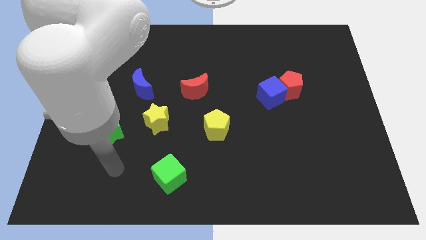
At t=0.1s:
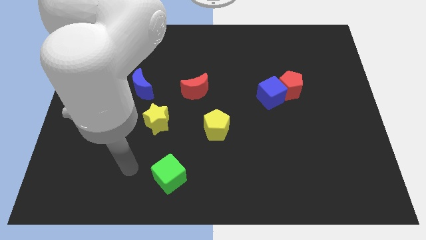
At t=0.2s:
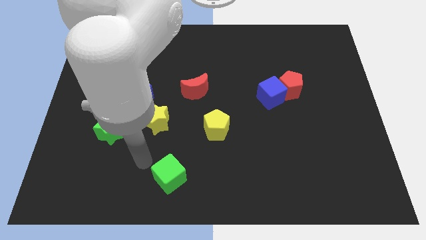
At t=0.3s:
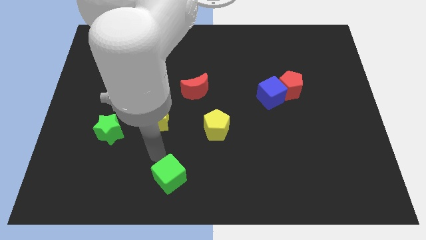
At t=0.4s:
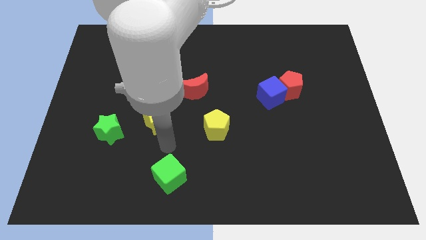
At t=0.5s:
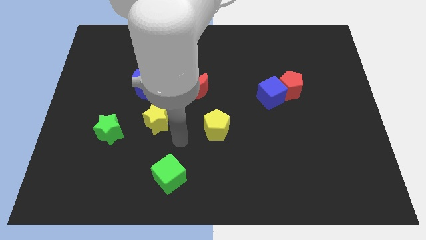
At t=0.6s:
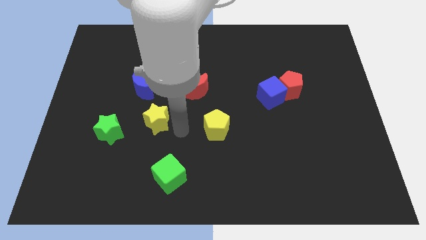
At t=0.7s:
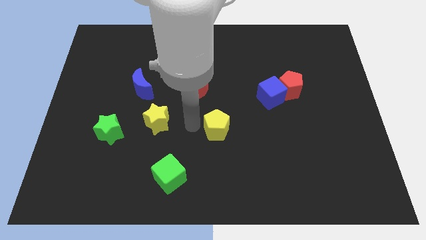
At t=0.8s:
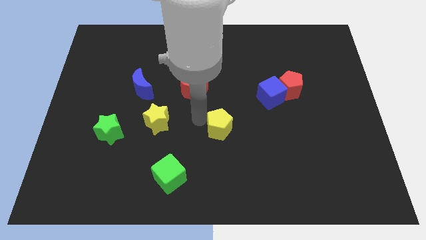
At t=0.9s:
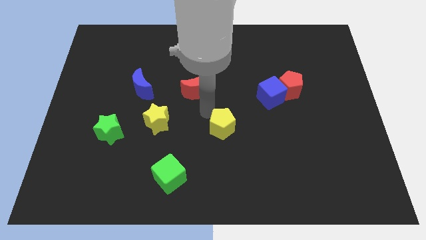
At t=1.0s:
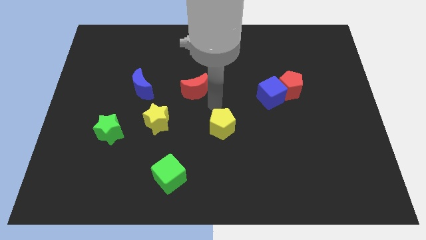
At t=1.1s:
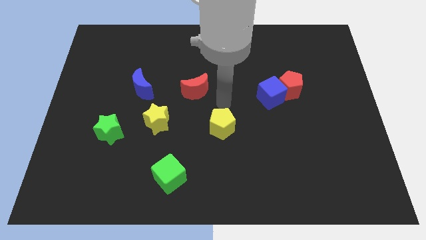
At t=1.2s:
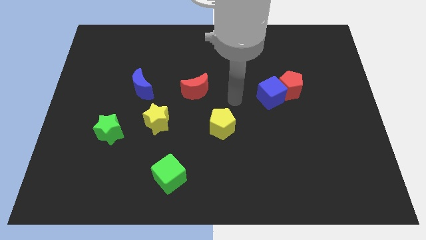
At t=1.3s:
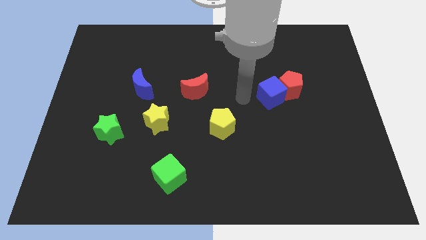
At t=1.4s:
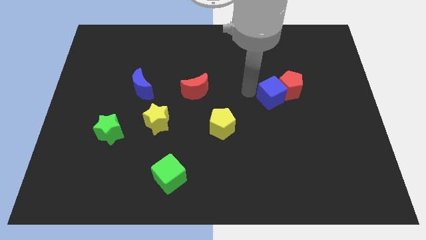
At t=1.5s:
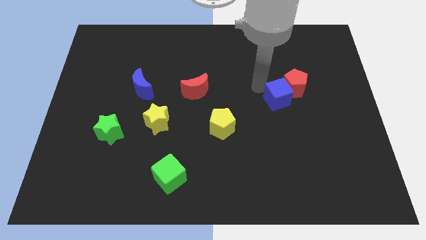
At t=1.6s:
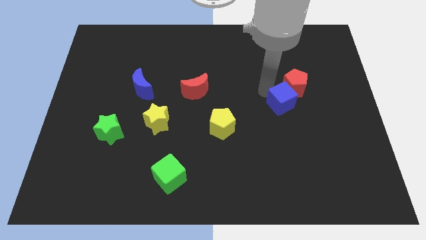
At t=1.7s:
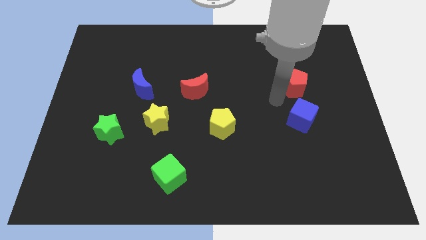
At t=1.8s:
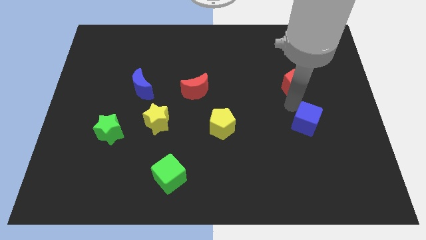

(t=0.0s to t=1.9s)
pull the red pentagon apart from the blue cube

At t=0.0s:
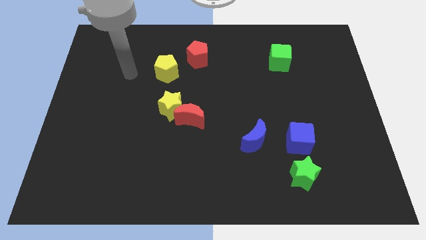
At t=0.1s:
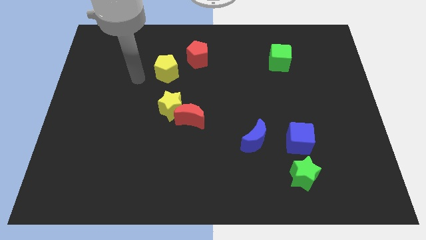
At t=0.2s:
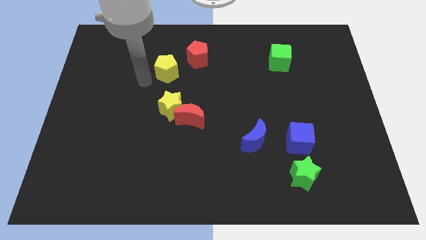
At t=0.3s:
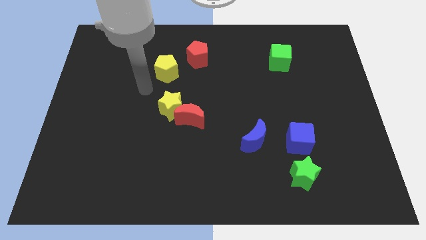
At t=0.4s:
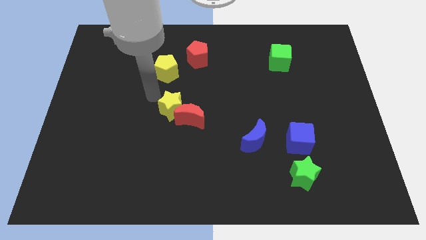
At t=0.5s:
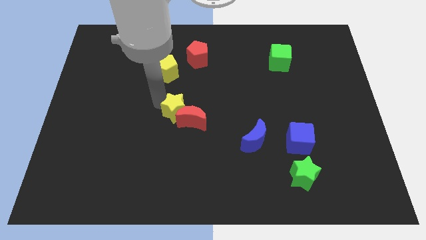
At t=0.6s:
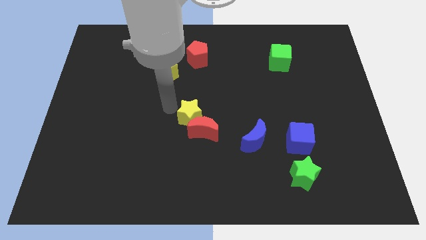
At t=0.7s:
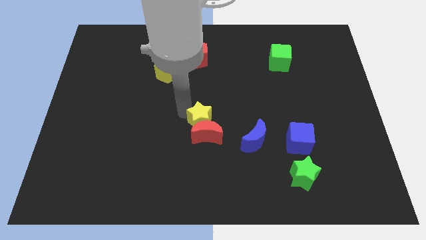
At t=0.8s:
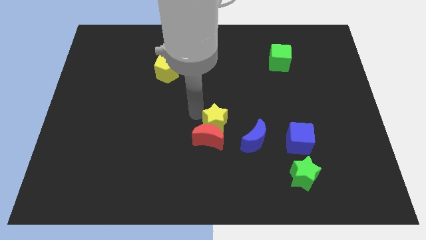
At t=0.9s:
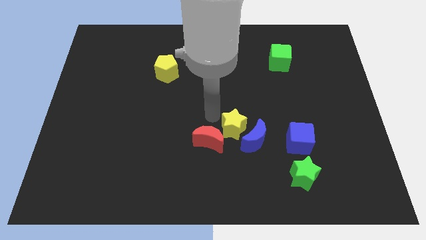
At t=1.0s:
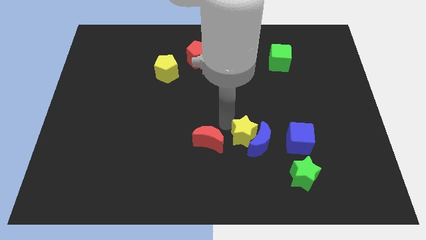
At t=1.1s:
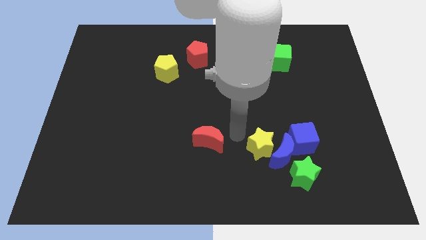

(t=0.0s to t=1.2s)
separate the red moon from the yellow star

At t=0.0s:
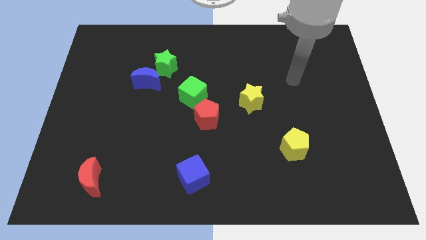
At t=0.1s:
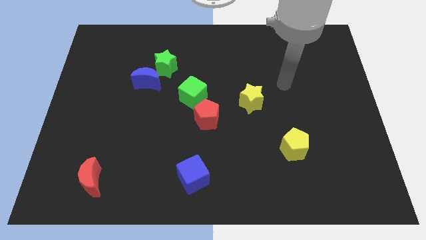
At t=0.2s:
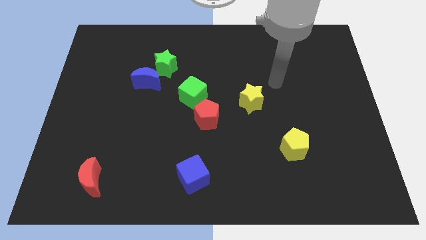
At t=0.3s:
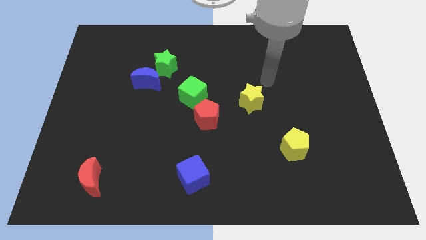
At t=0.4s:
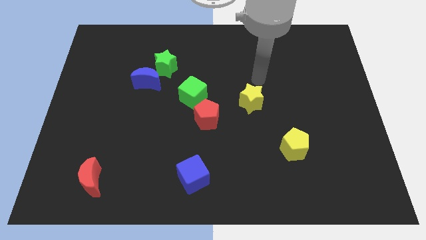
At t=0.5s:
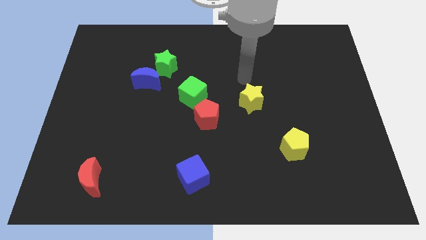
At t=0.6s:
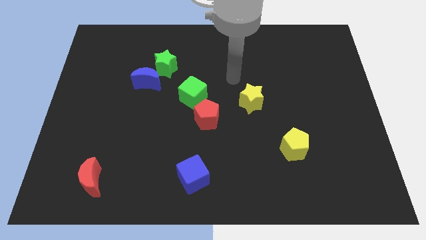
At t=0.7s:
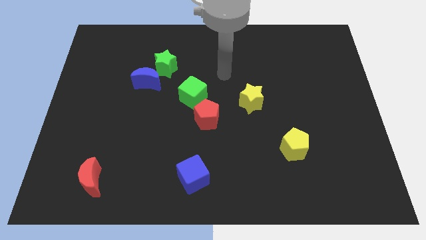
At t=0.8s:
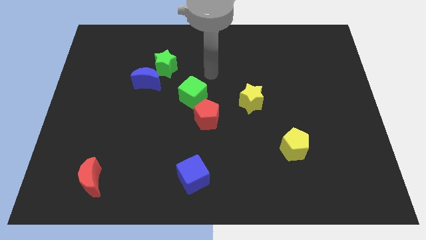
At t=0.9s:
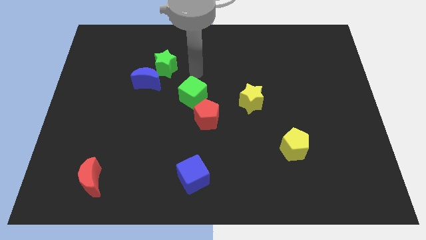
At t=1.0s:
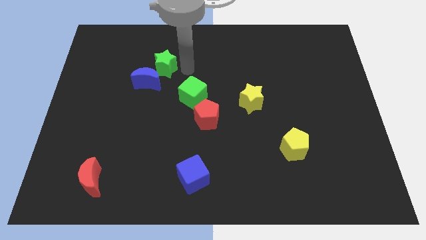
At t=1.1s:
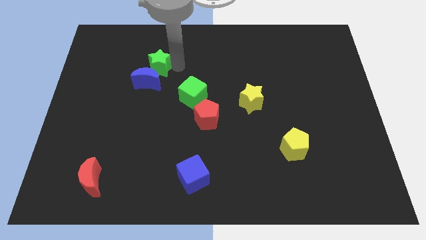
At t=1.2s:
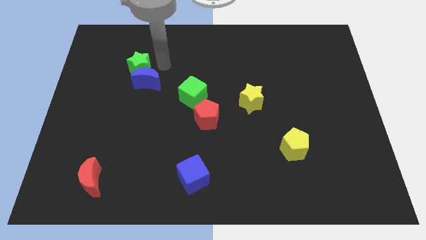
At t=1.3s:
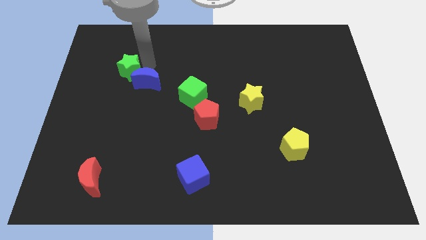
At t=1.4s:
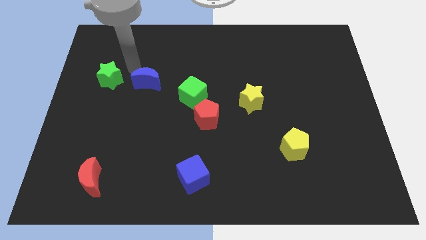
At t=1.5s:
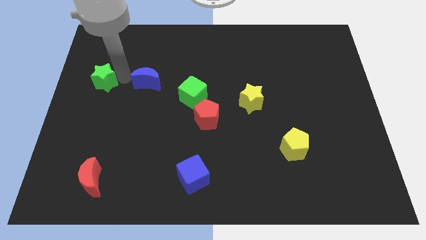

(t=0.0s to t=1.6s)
separate the blue moon from the green star

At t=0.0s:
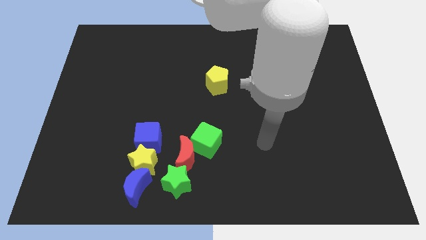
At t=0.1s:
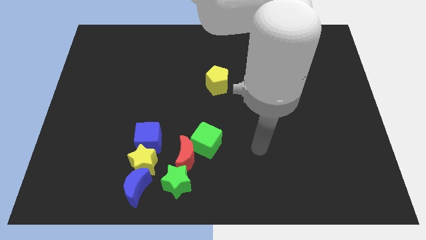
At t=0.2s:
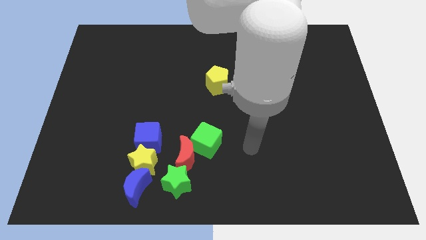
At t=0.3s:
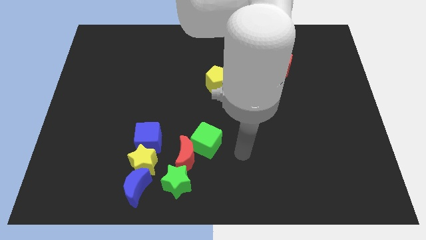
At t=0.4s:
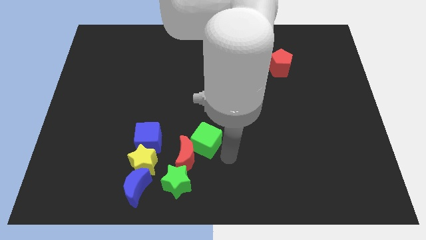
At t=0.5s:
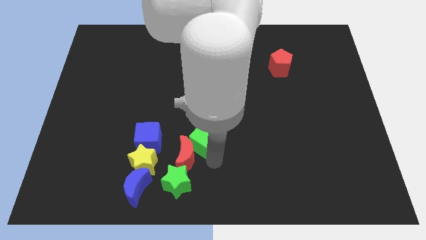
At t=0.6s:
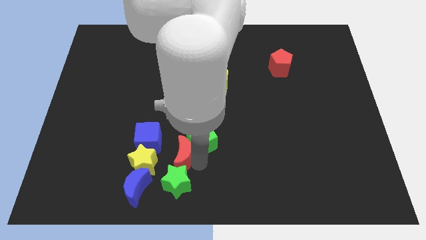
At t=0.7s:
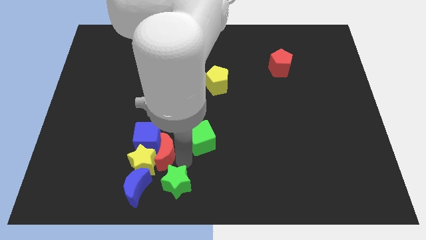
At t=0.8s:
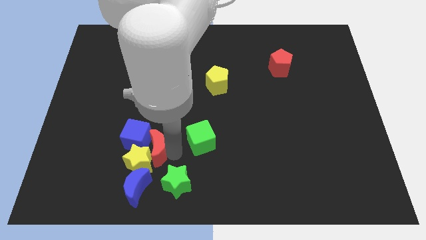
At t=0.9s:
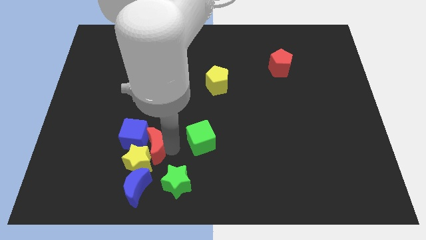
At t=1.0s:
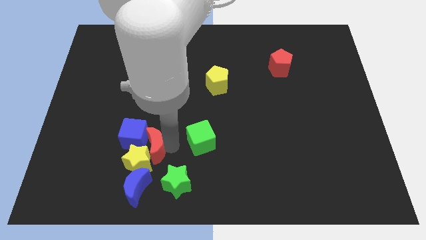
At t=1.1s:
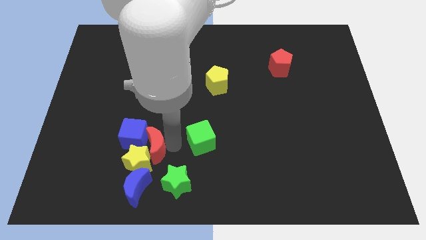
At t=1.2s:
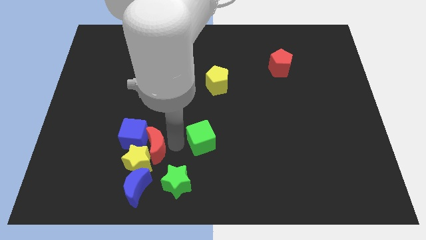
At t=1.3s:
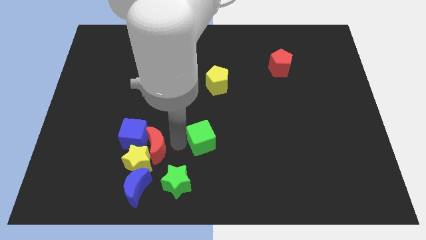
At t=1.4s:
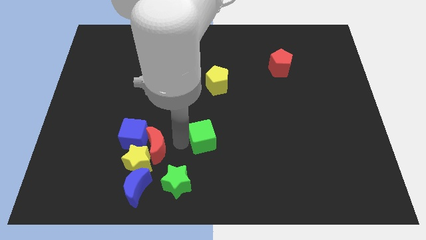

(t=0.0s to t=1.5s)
separate the green cube from the red moon

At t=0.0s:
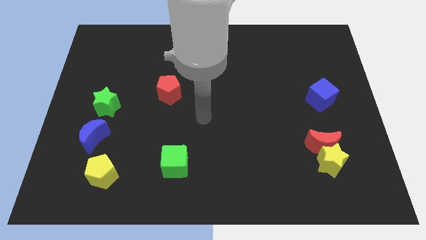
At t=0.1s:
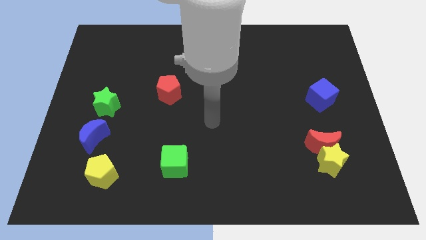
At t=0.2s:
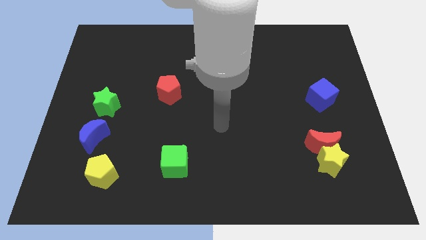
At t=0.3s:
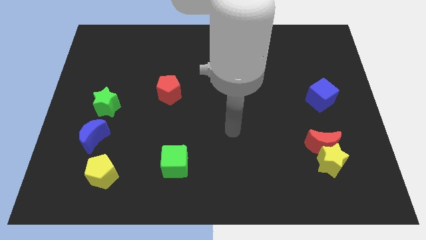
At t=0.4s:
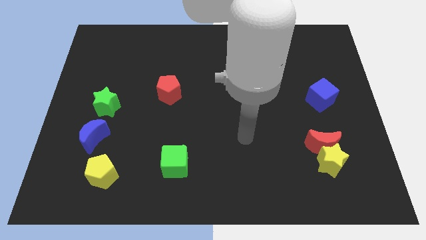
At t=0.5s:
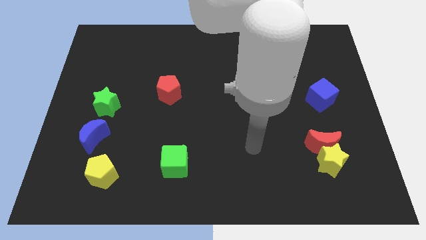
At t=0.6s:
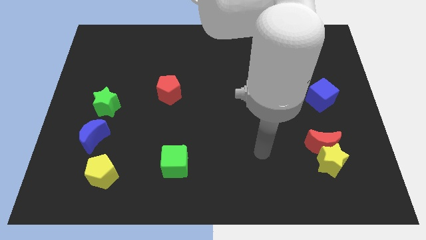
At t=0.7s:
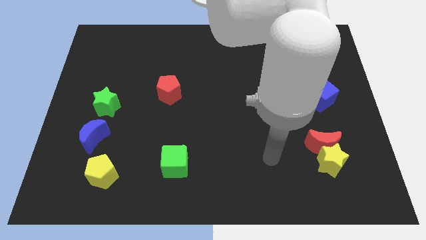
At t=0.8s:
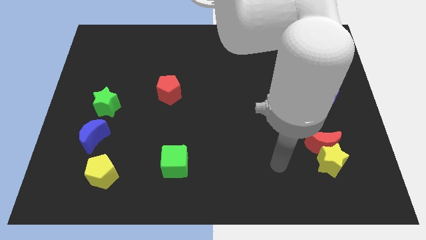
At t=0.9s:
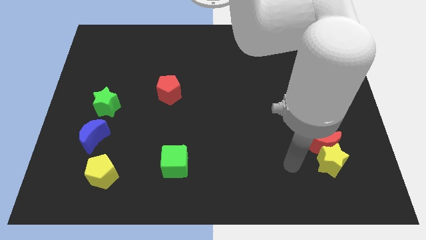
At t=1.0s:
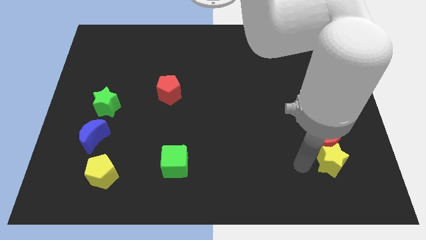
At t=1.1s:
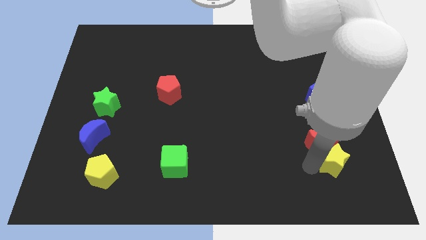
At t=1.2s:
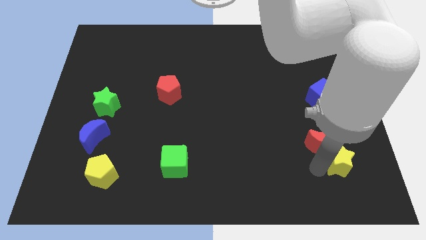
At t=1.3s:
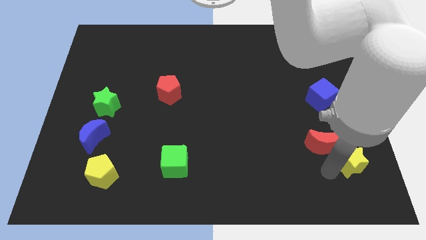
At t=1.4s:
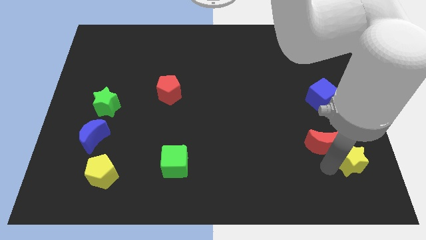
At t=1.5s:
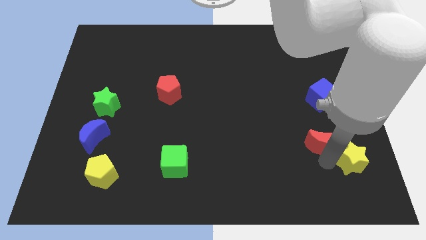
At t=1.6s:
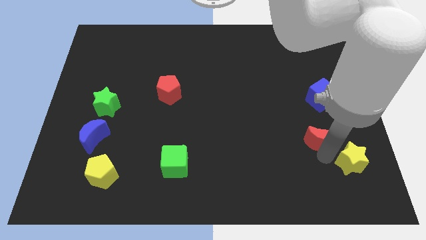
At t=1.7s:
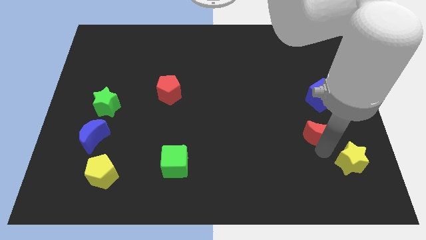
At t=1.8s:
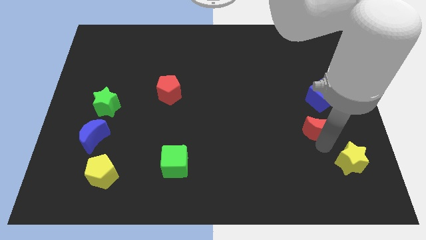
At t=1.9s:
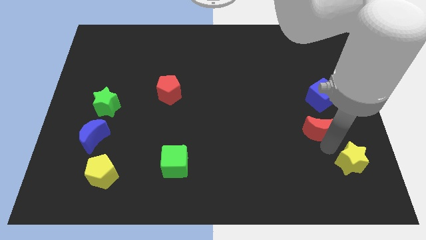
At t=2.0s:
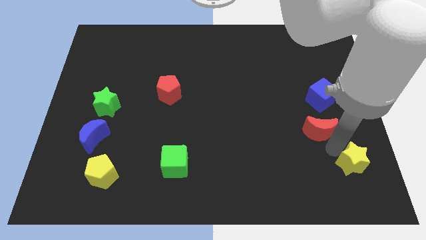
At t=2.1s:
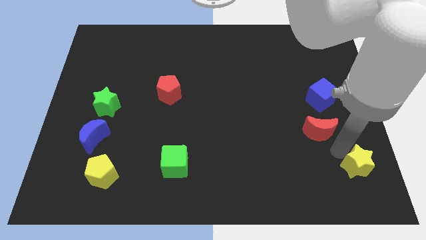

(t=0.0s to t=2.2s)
move the red moon away from the yellow star

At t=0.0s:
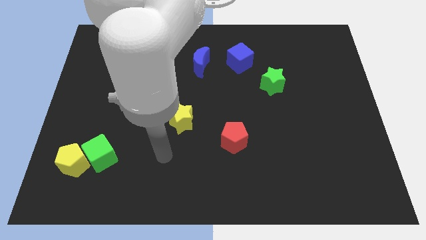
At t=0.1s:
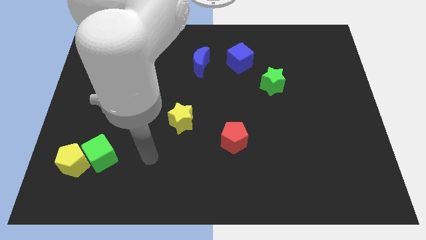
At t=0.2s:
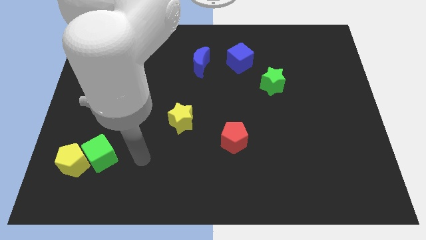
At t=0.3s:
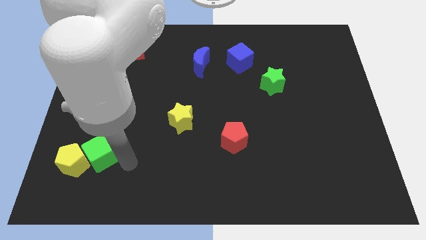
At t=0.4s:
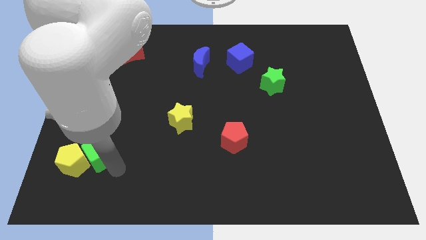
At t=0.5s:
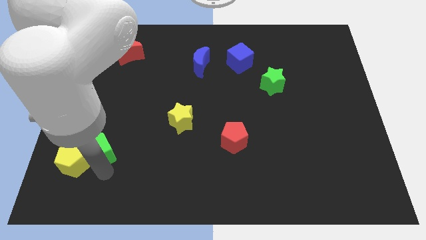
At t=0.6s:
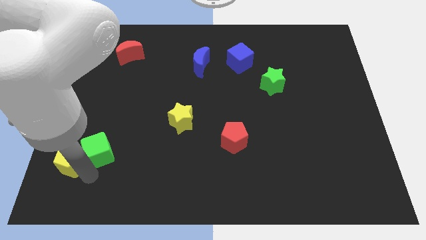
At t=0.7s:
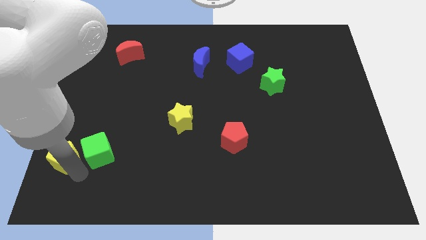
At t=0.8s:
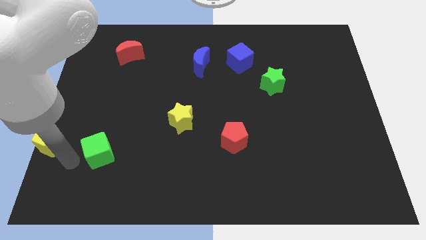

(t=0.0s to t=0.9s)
move the green cube away from the yellow pentagon
